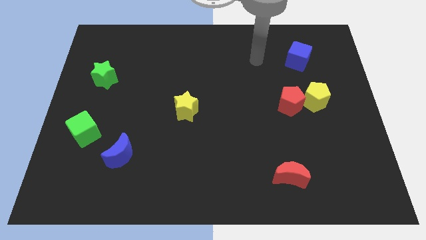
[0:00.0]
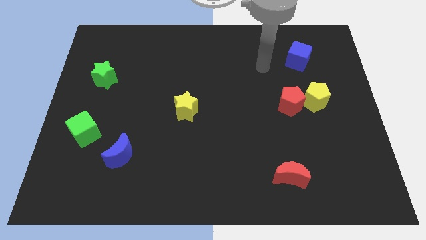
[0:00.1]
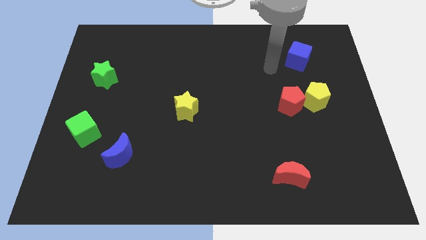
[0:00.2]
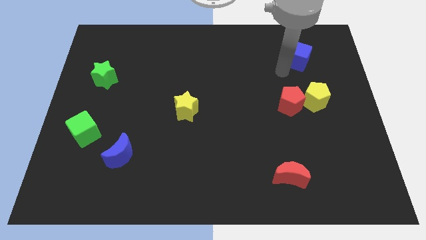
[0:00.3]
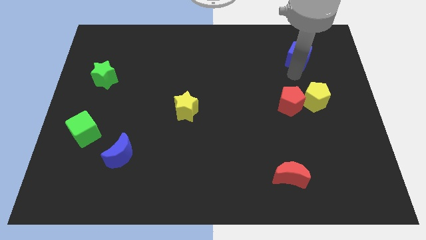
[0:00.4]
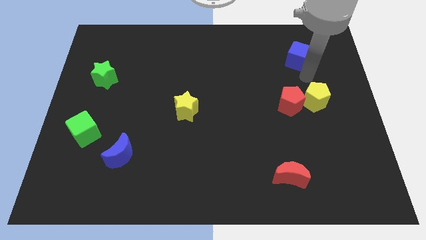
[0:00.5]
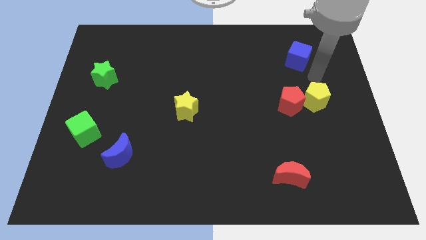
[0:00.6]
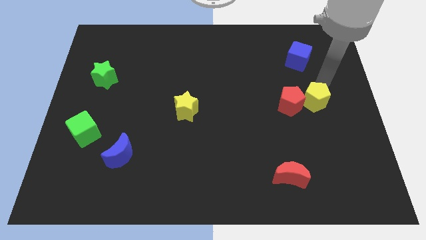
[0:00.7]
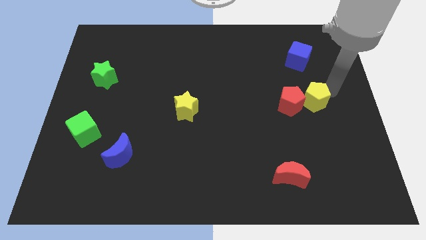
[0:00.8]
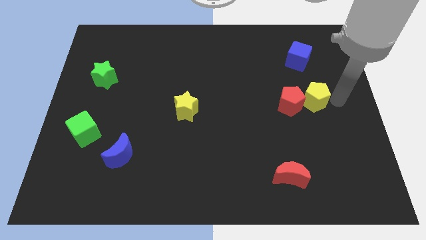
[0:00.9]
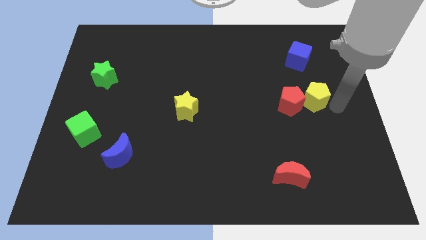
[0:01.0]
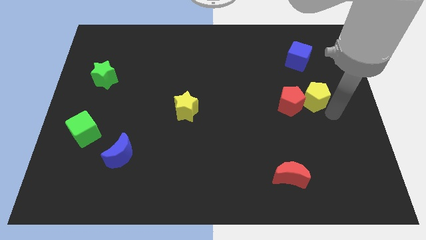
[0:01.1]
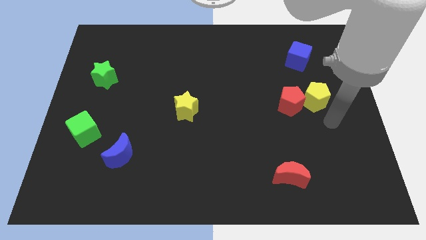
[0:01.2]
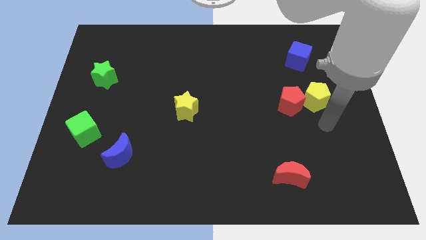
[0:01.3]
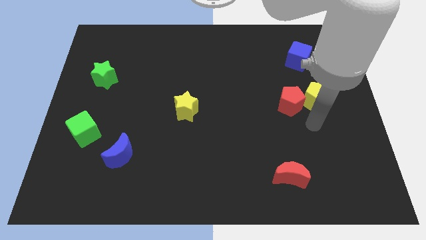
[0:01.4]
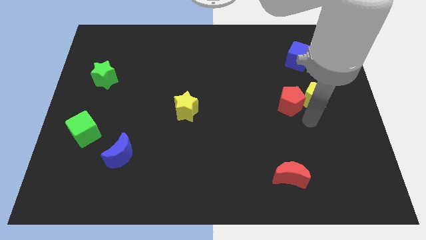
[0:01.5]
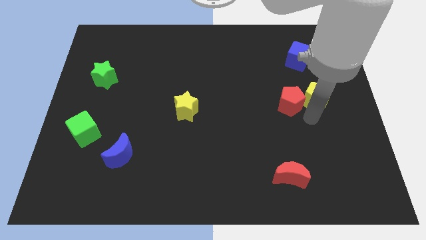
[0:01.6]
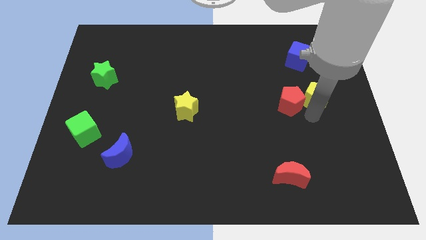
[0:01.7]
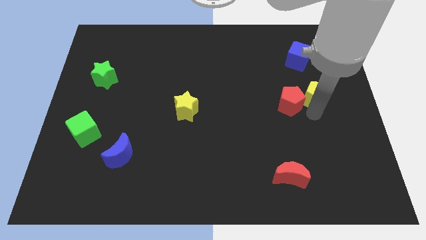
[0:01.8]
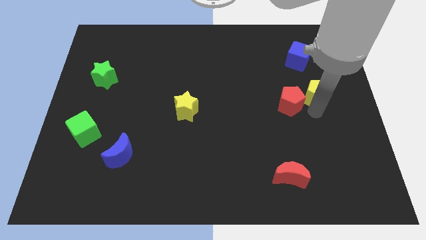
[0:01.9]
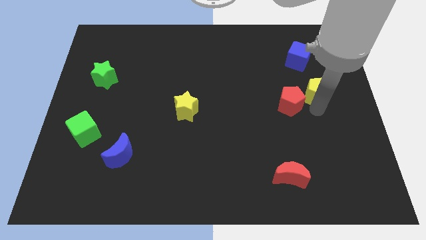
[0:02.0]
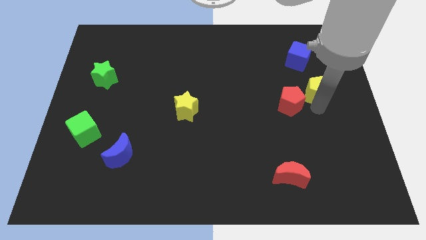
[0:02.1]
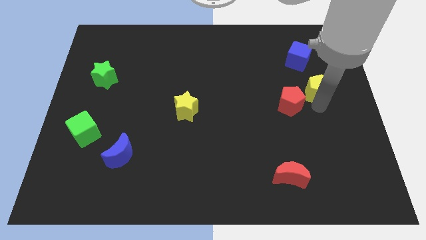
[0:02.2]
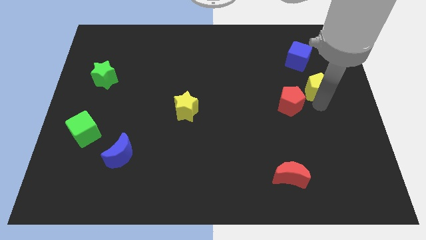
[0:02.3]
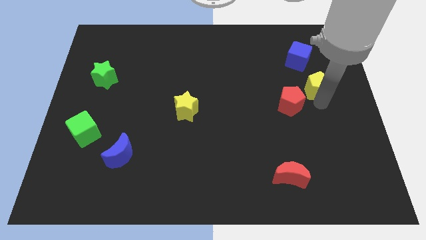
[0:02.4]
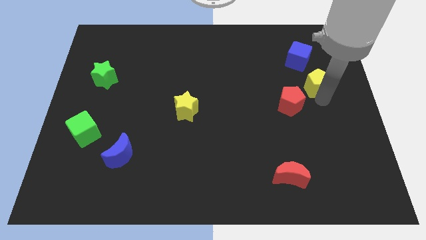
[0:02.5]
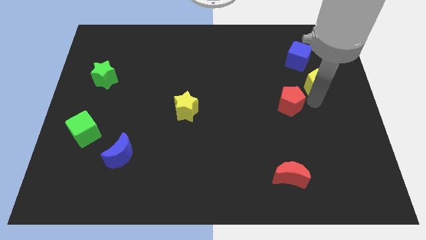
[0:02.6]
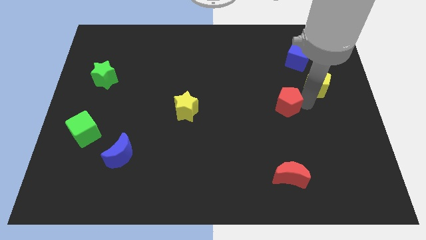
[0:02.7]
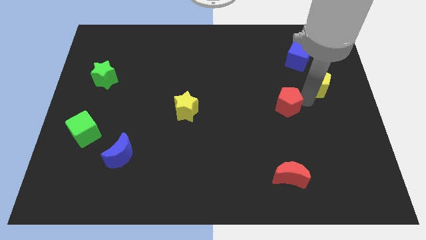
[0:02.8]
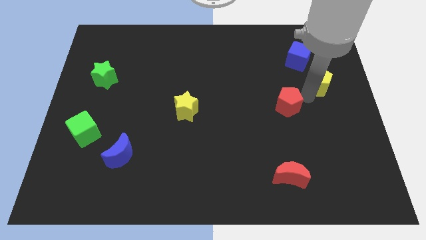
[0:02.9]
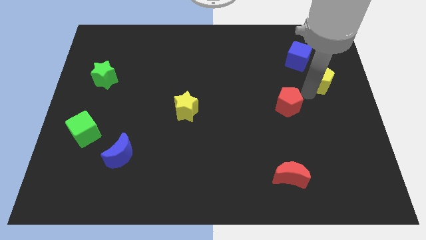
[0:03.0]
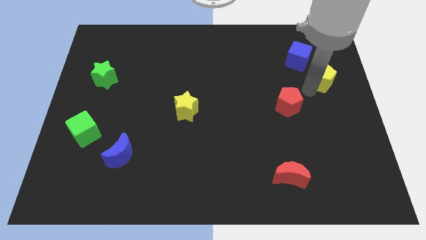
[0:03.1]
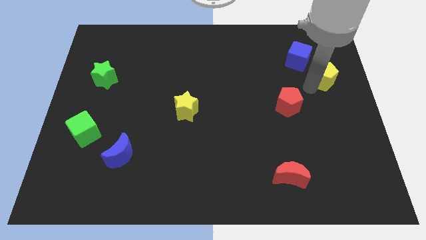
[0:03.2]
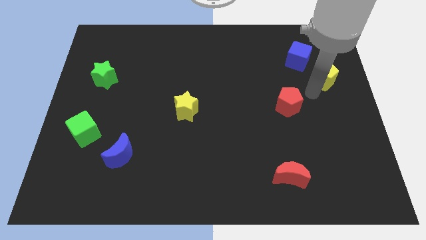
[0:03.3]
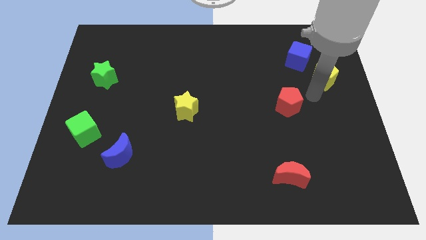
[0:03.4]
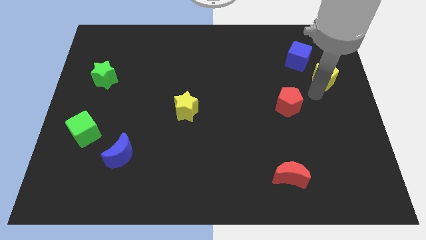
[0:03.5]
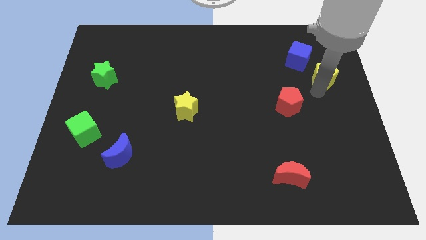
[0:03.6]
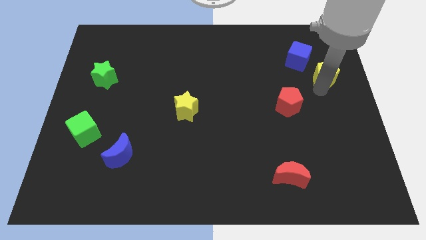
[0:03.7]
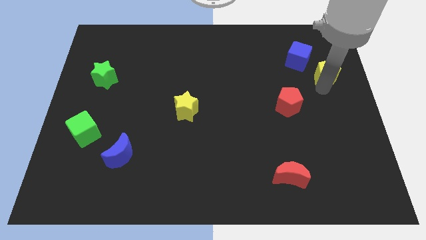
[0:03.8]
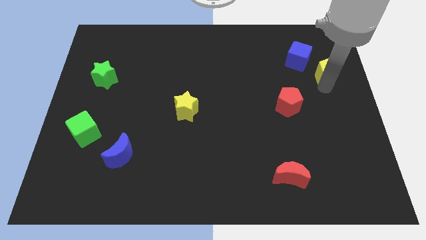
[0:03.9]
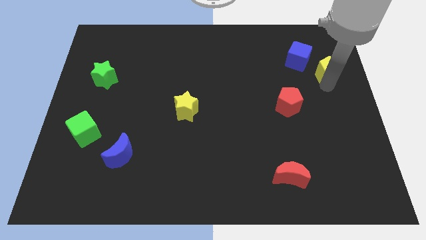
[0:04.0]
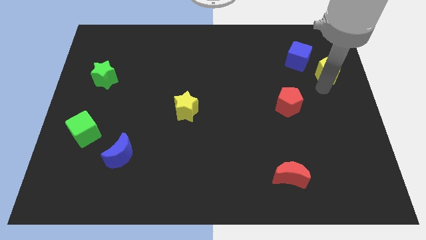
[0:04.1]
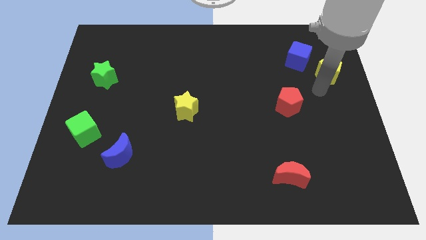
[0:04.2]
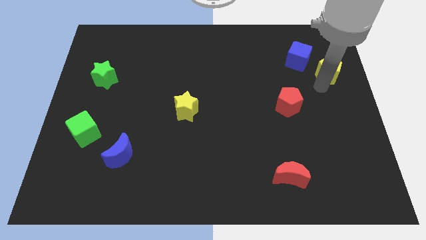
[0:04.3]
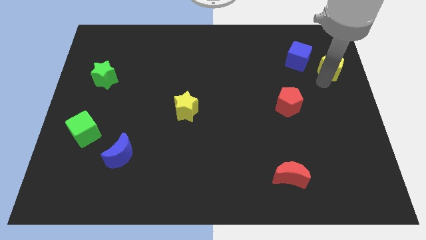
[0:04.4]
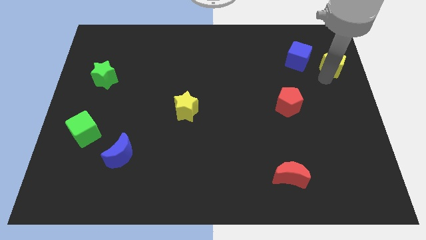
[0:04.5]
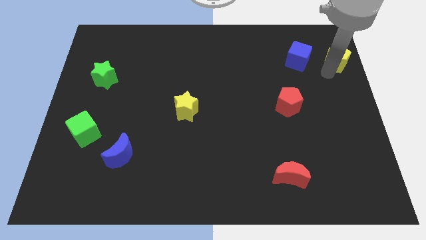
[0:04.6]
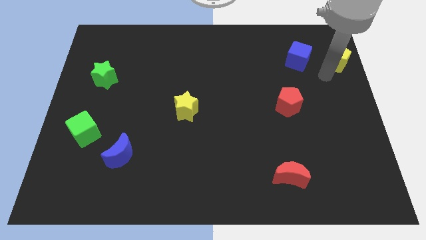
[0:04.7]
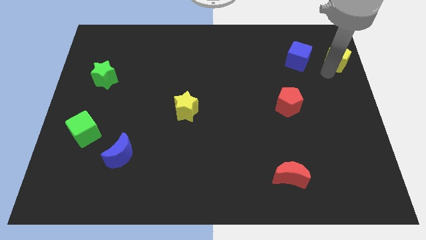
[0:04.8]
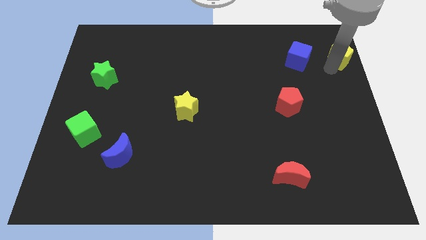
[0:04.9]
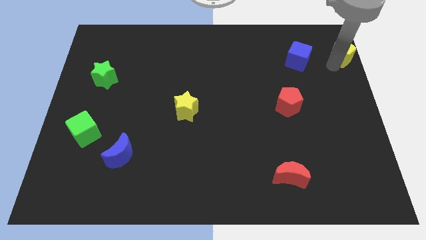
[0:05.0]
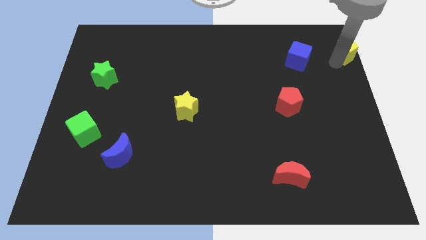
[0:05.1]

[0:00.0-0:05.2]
put the yellow pentagon to the top right

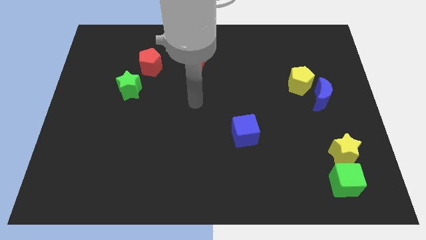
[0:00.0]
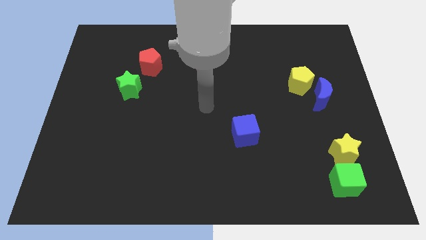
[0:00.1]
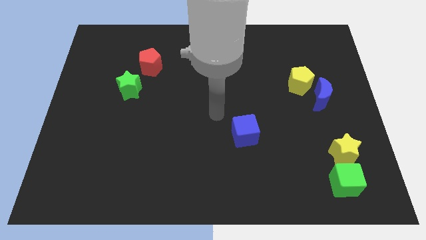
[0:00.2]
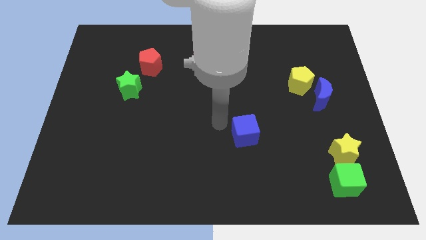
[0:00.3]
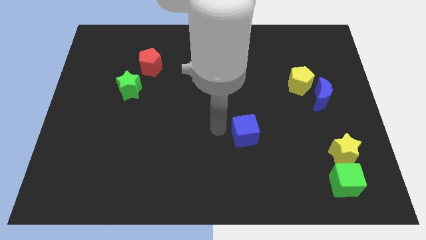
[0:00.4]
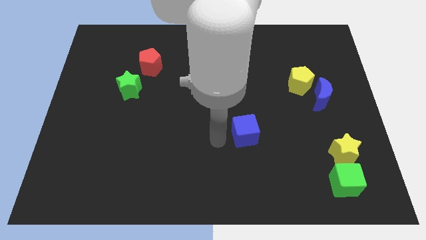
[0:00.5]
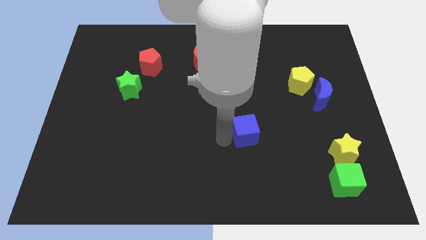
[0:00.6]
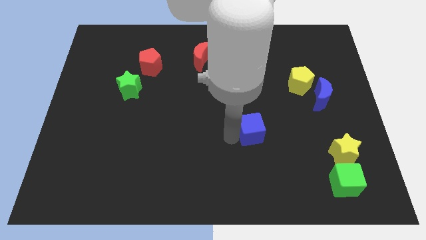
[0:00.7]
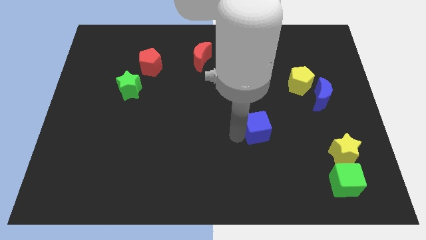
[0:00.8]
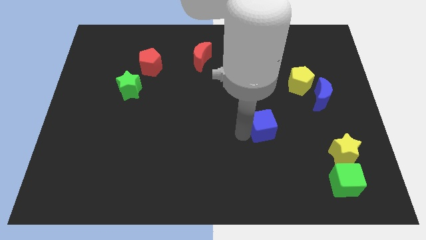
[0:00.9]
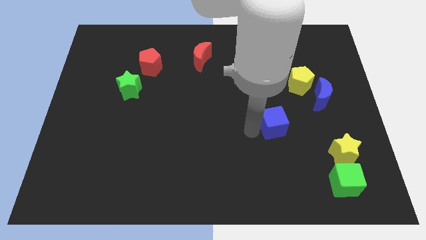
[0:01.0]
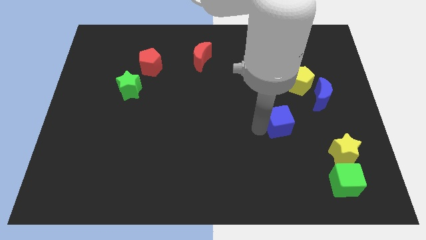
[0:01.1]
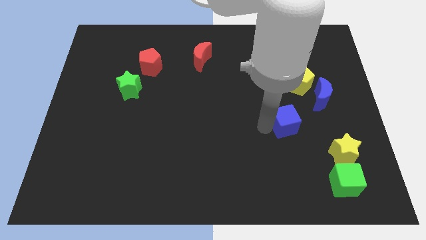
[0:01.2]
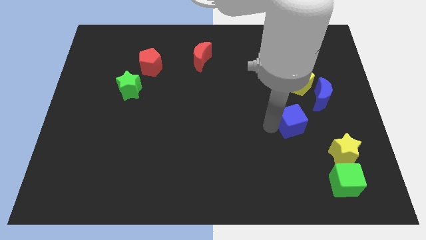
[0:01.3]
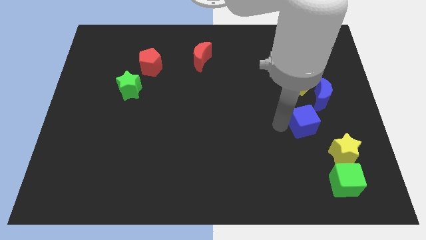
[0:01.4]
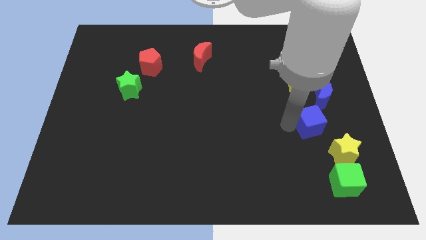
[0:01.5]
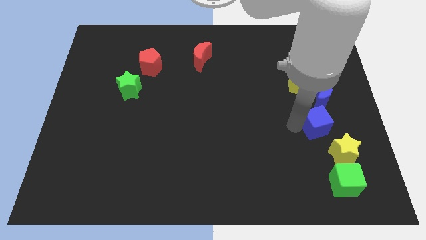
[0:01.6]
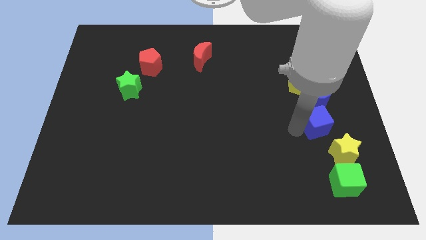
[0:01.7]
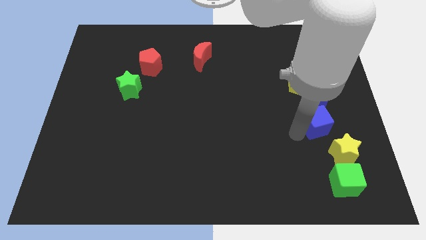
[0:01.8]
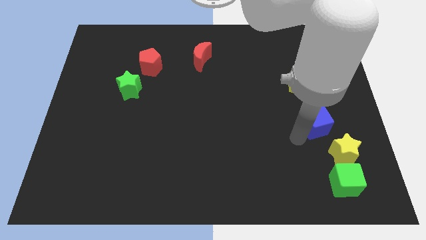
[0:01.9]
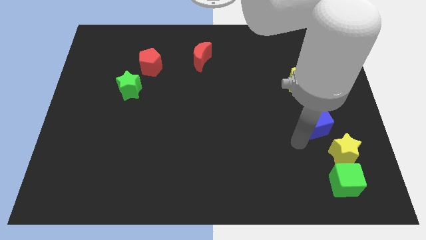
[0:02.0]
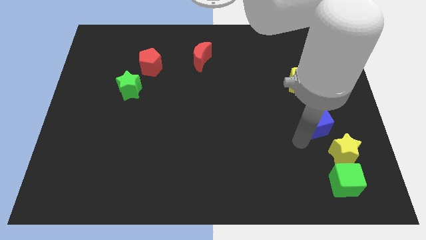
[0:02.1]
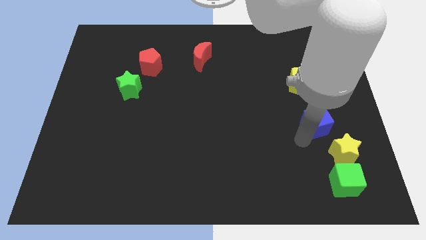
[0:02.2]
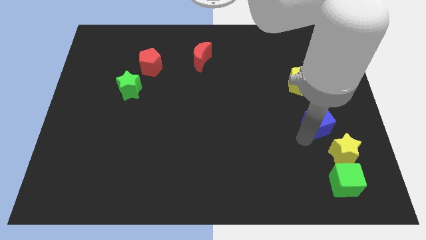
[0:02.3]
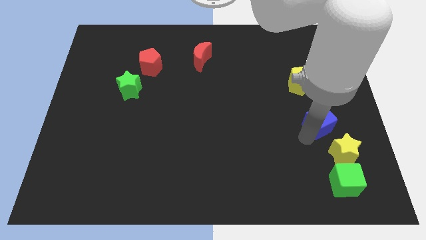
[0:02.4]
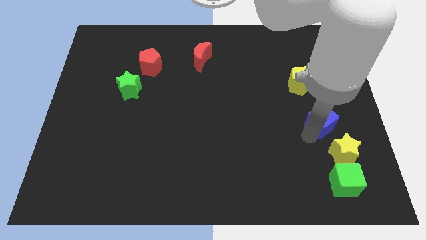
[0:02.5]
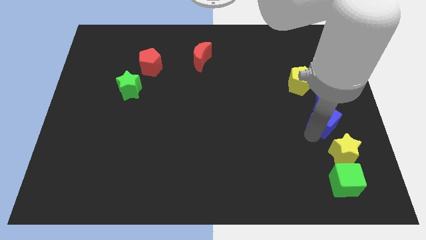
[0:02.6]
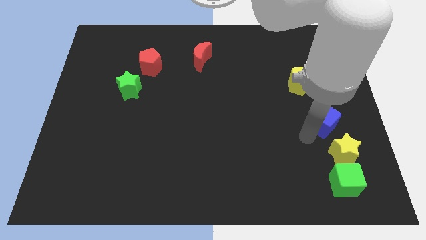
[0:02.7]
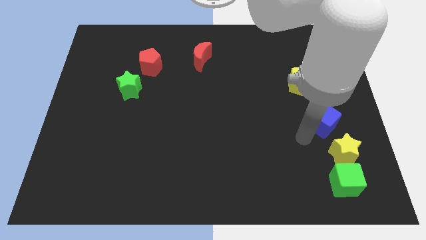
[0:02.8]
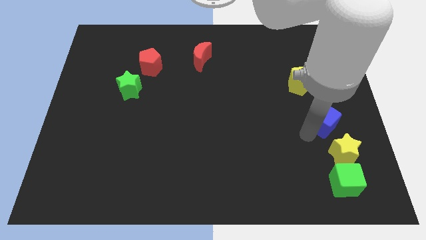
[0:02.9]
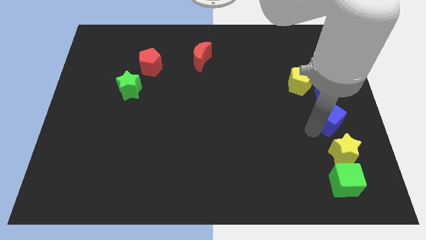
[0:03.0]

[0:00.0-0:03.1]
push the blue cube to the right side
